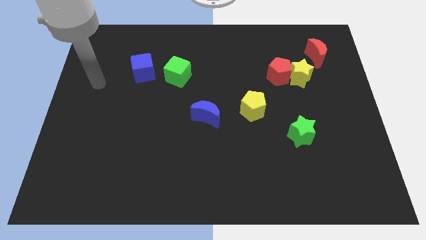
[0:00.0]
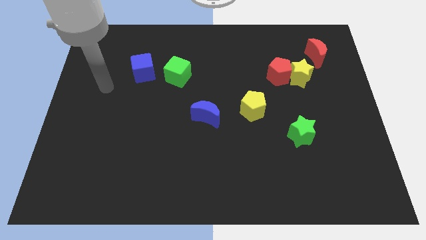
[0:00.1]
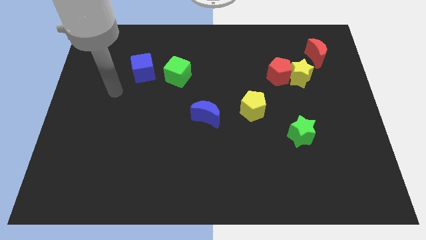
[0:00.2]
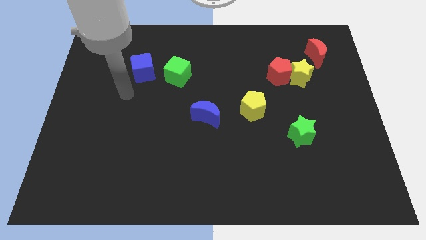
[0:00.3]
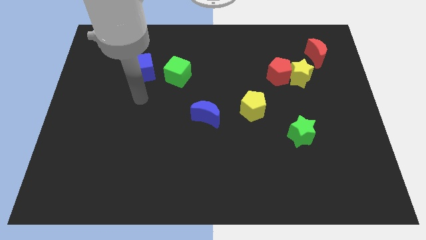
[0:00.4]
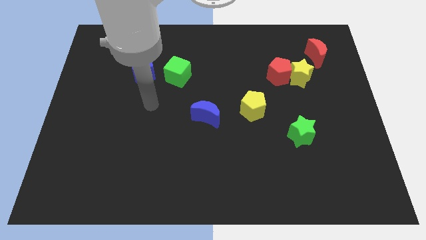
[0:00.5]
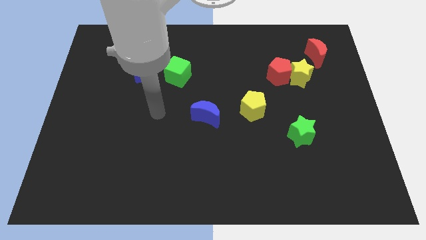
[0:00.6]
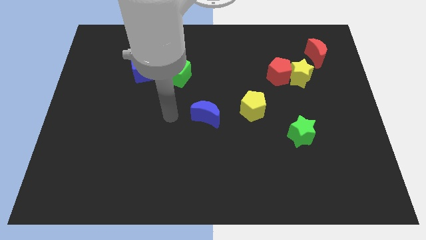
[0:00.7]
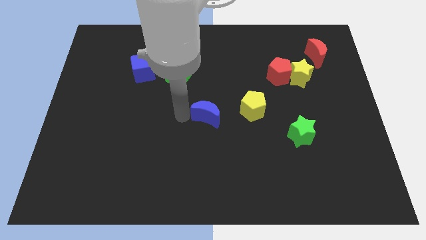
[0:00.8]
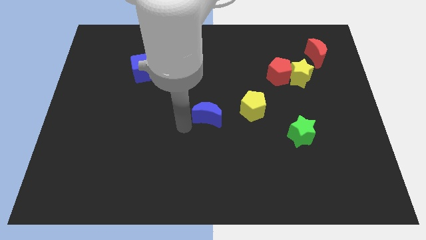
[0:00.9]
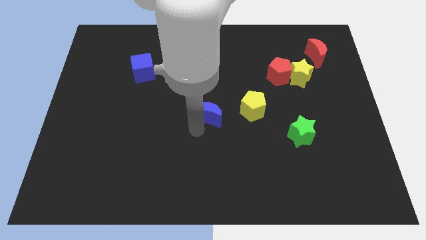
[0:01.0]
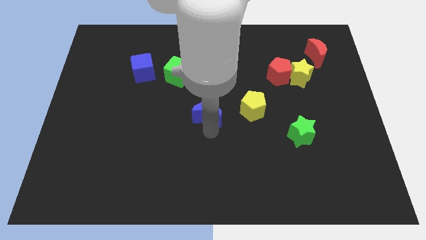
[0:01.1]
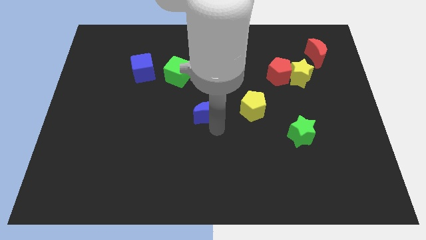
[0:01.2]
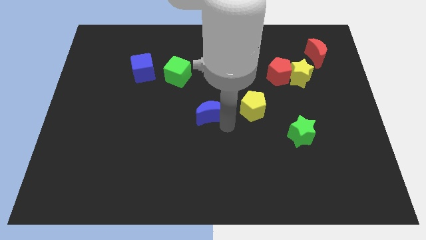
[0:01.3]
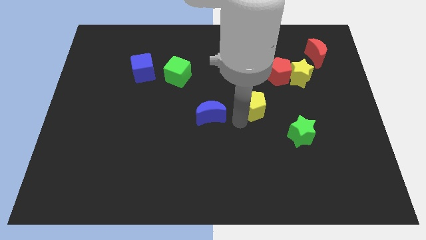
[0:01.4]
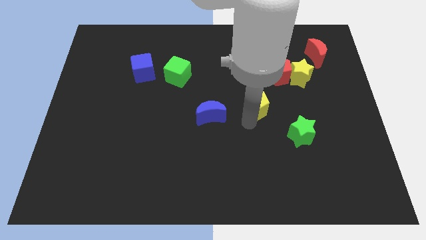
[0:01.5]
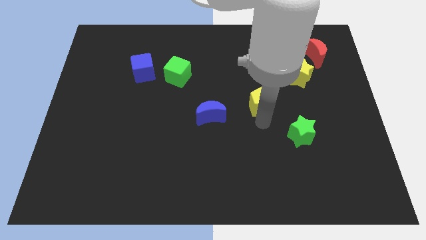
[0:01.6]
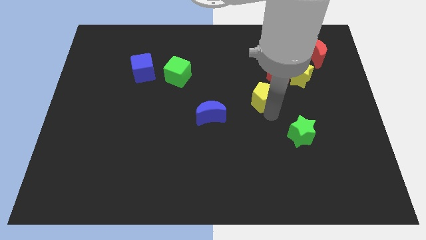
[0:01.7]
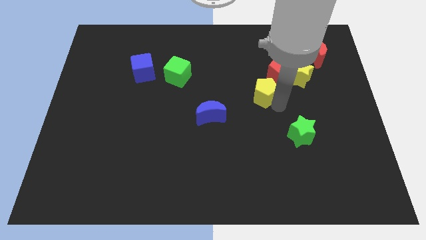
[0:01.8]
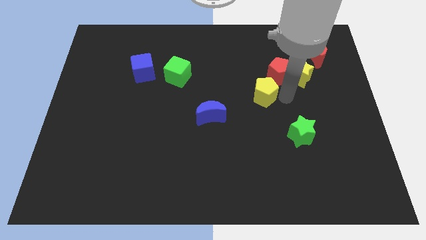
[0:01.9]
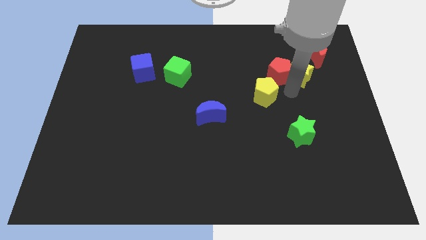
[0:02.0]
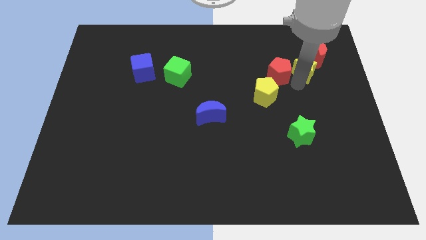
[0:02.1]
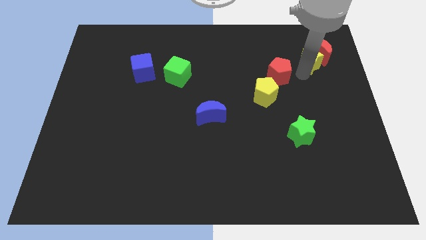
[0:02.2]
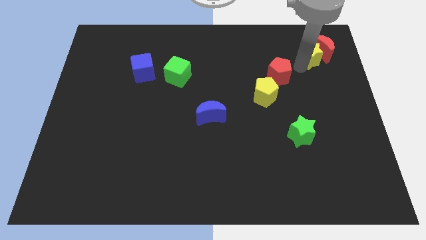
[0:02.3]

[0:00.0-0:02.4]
separate the red pentagon from the yellow star

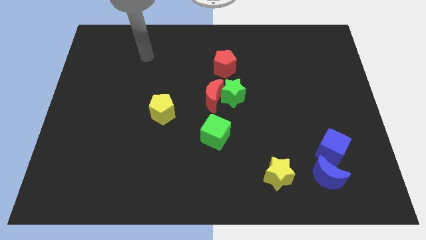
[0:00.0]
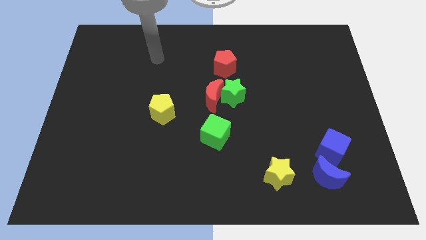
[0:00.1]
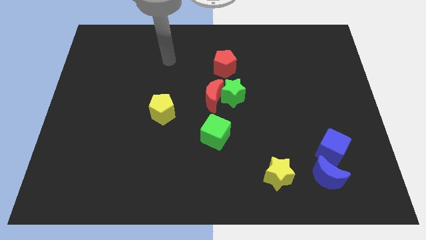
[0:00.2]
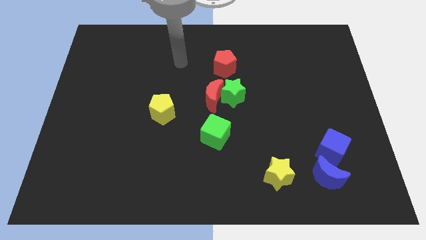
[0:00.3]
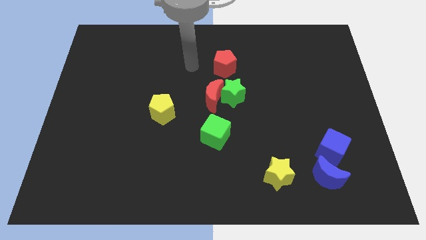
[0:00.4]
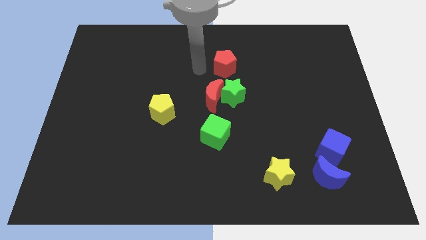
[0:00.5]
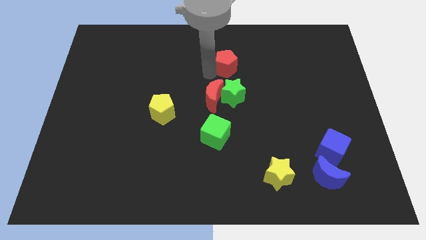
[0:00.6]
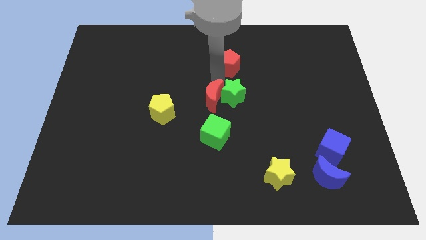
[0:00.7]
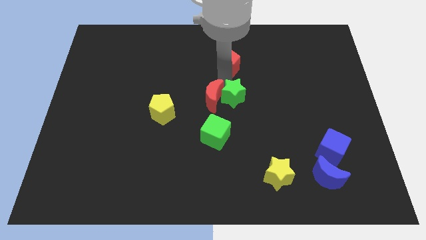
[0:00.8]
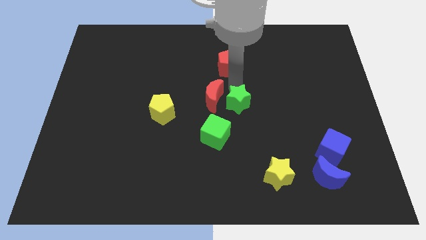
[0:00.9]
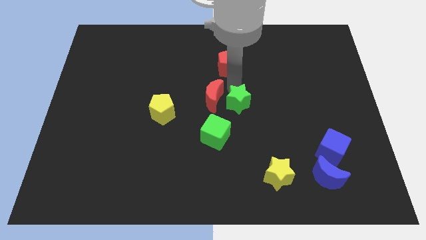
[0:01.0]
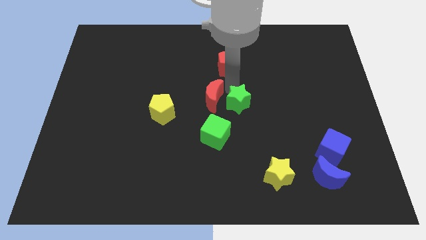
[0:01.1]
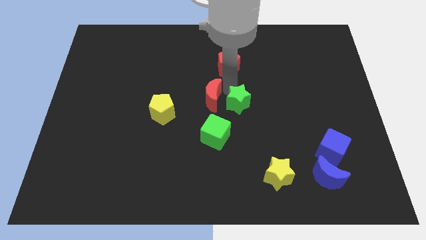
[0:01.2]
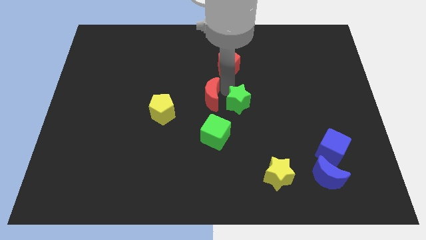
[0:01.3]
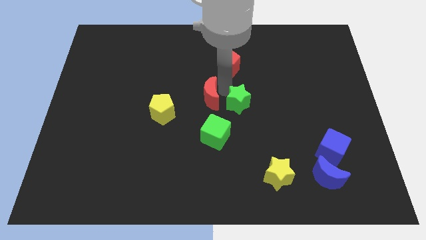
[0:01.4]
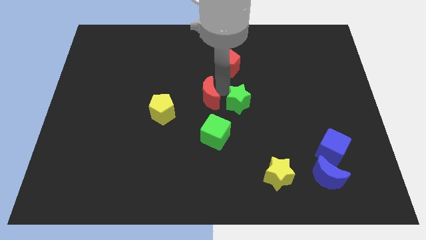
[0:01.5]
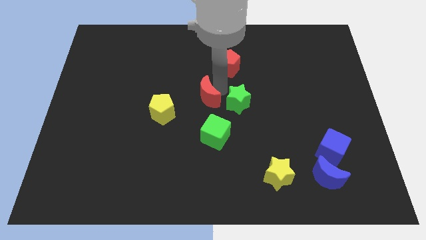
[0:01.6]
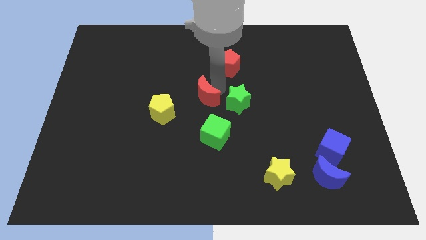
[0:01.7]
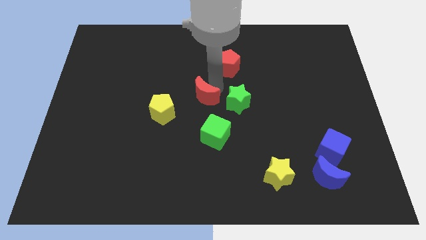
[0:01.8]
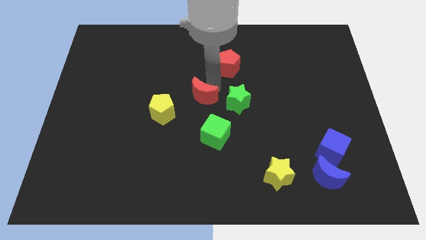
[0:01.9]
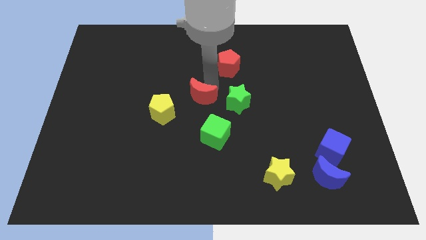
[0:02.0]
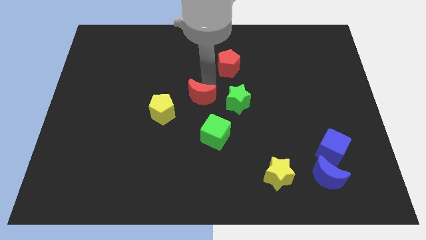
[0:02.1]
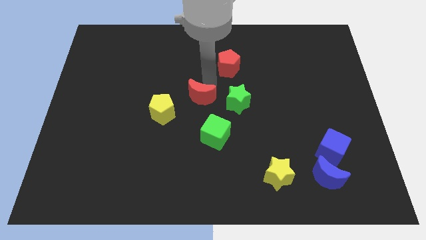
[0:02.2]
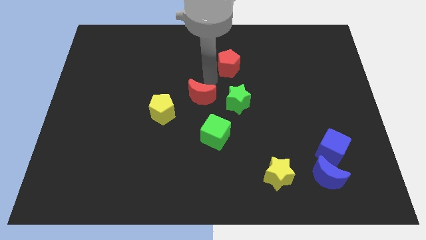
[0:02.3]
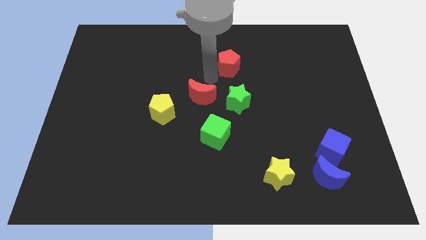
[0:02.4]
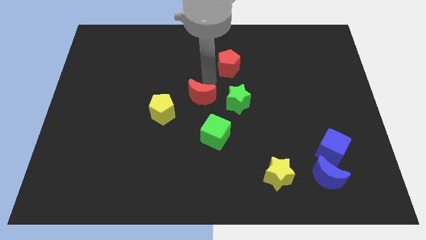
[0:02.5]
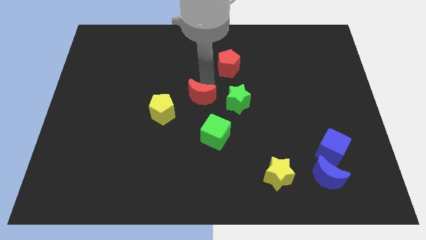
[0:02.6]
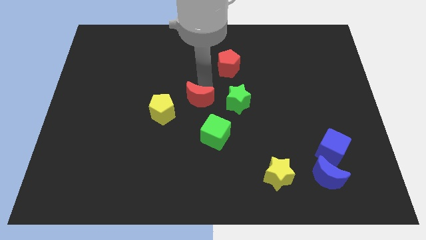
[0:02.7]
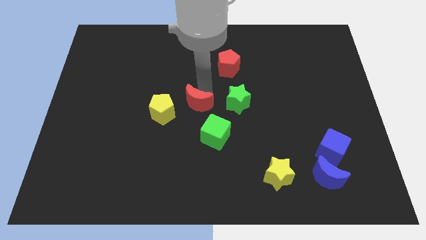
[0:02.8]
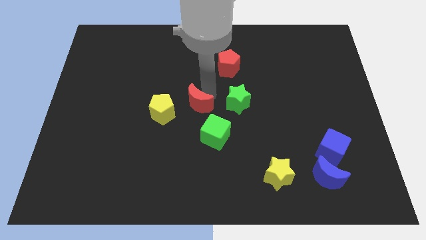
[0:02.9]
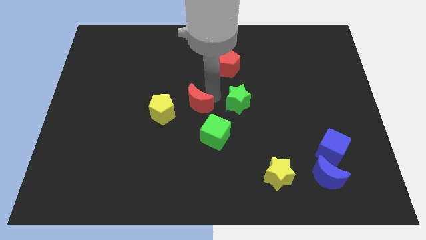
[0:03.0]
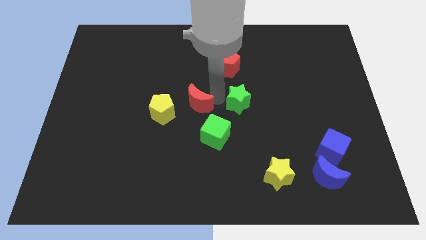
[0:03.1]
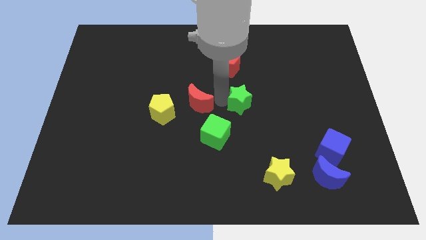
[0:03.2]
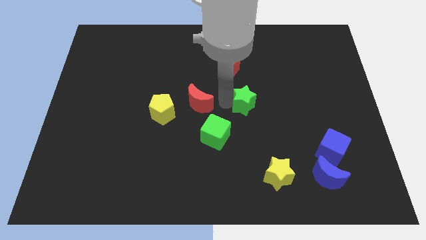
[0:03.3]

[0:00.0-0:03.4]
move the red moon away from the green star

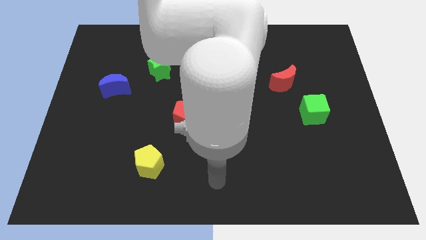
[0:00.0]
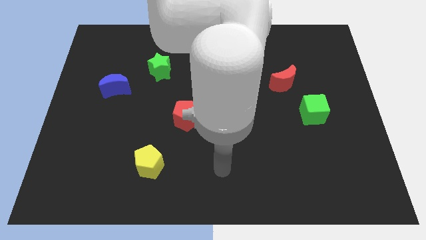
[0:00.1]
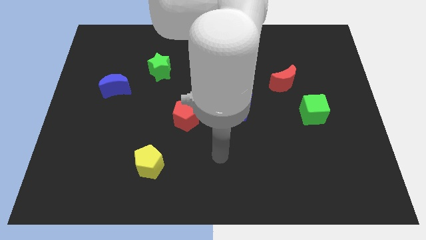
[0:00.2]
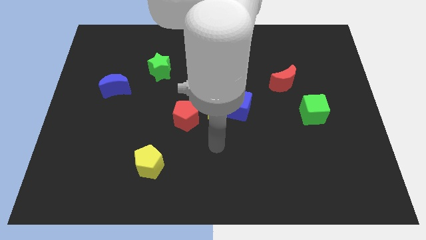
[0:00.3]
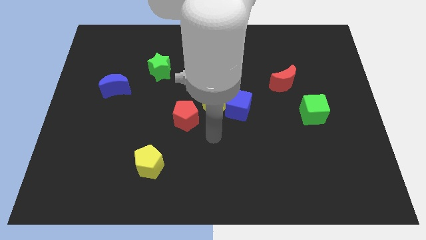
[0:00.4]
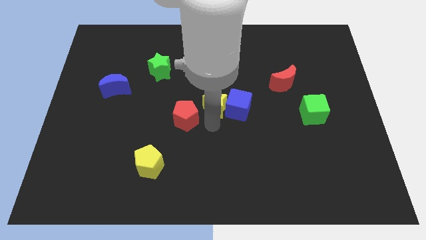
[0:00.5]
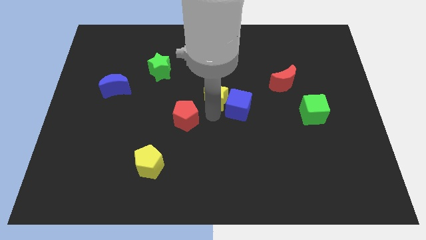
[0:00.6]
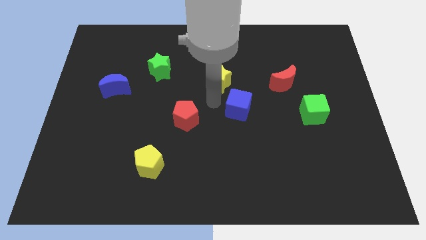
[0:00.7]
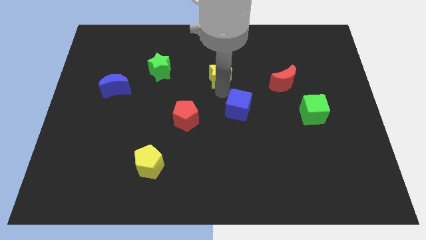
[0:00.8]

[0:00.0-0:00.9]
pull the blue cube apart from the yellow star

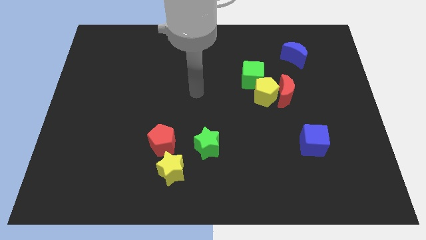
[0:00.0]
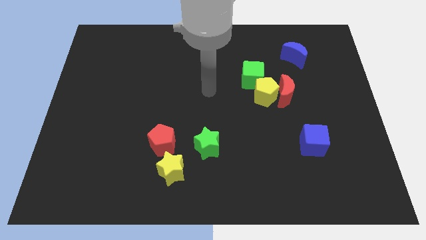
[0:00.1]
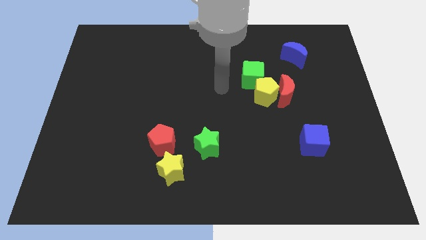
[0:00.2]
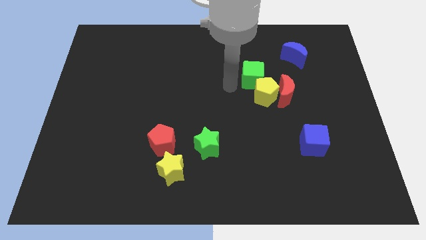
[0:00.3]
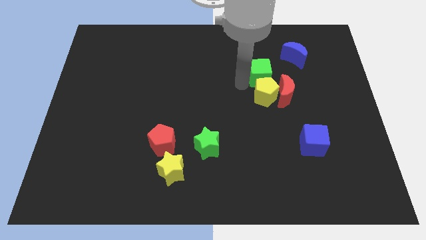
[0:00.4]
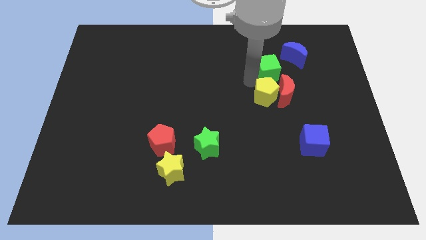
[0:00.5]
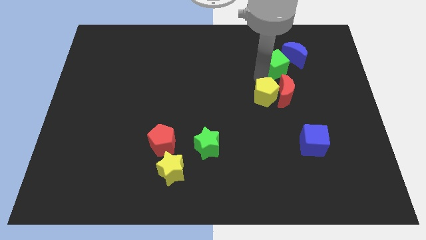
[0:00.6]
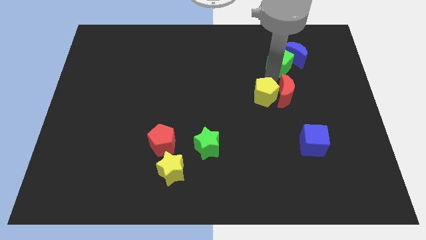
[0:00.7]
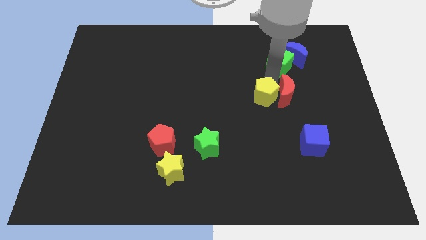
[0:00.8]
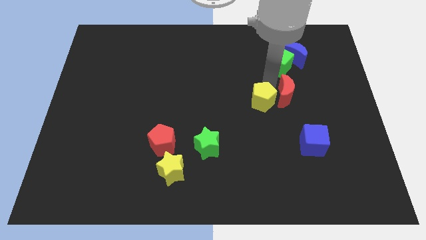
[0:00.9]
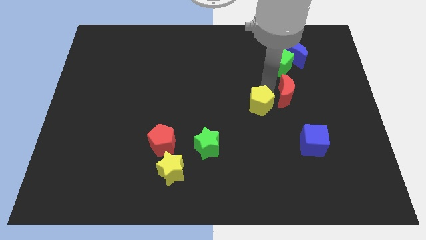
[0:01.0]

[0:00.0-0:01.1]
separate the yellow pentagon from the red moon and green cube

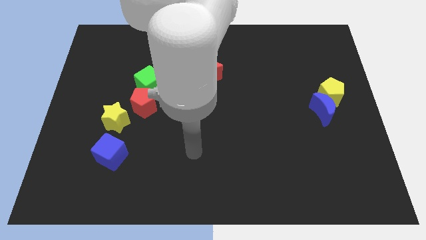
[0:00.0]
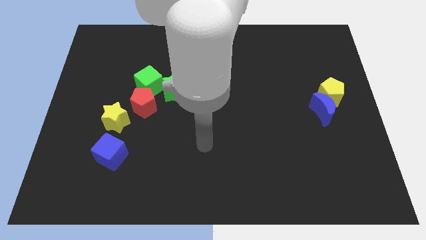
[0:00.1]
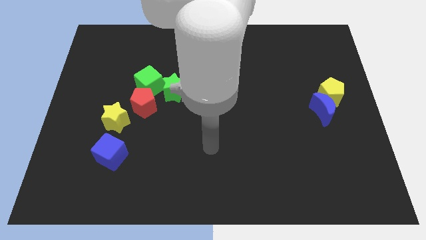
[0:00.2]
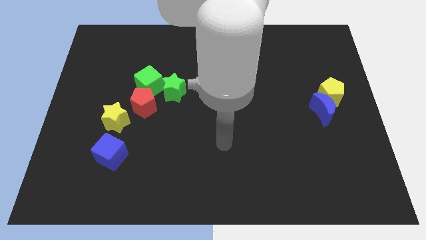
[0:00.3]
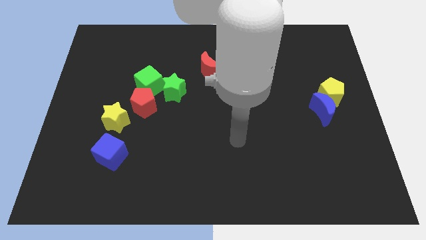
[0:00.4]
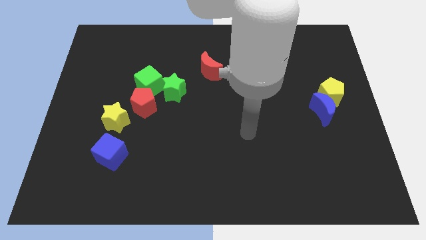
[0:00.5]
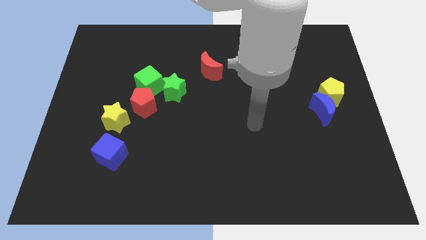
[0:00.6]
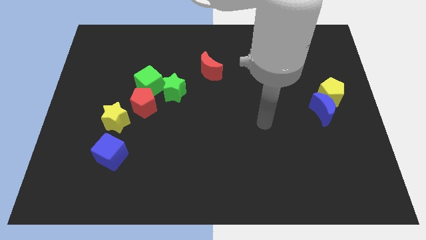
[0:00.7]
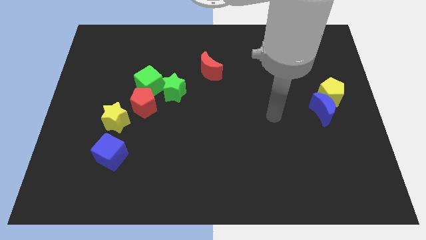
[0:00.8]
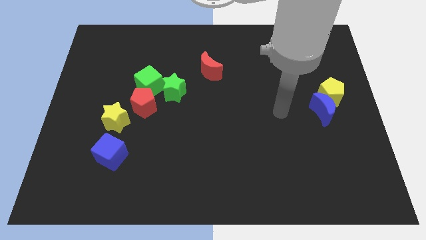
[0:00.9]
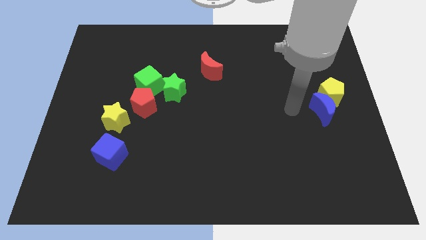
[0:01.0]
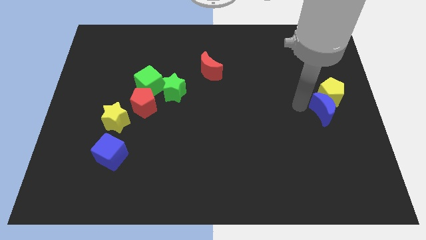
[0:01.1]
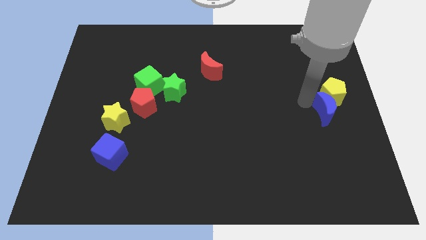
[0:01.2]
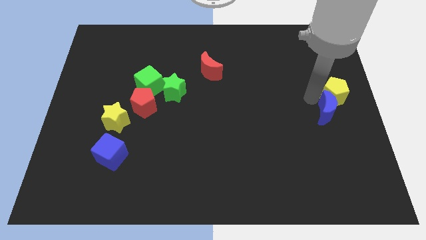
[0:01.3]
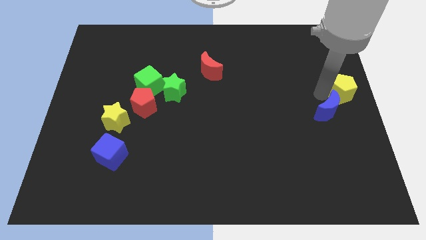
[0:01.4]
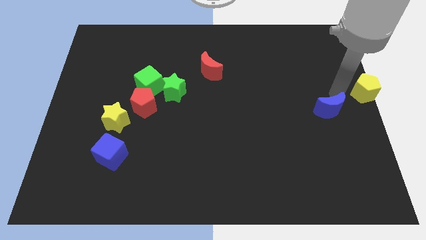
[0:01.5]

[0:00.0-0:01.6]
separate the blue moon from the yellow pentagon
